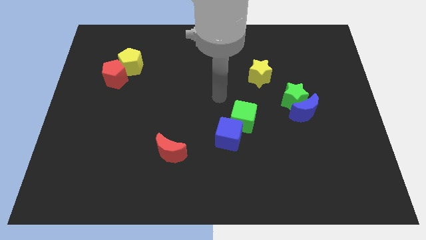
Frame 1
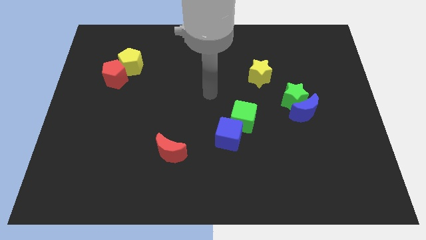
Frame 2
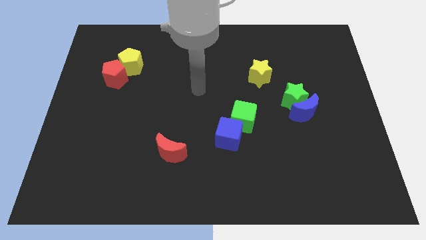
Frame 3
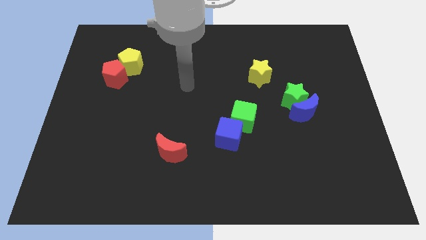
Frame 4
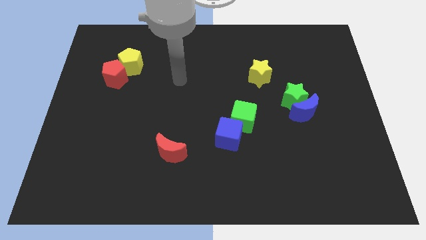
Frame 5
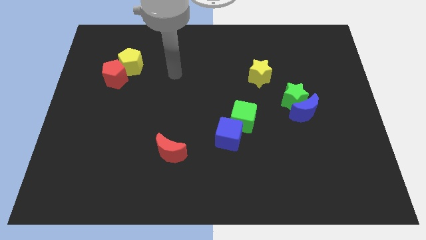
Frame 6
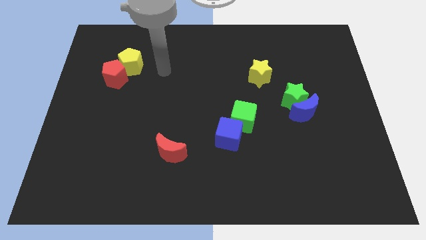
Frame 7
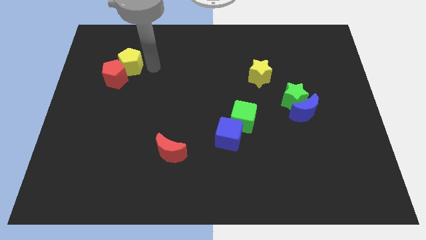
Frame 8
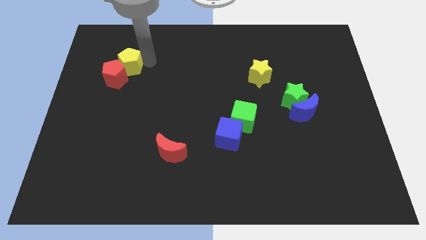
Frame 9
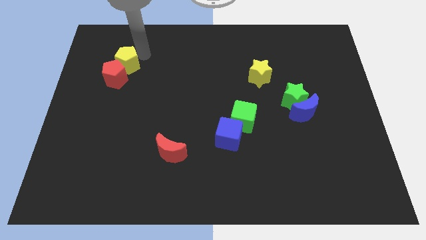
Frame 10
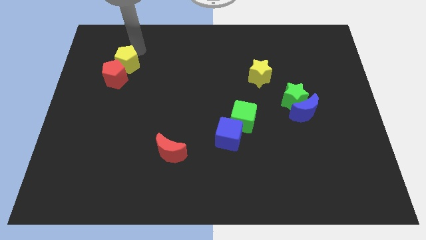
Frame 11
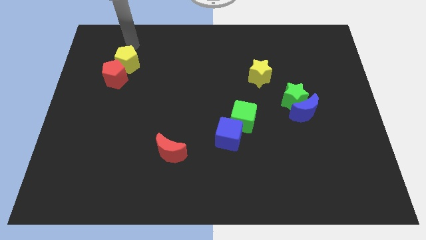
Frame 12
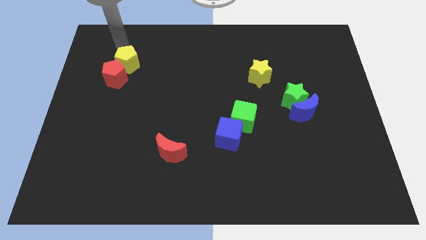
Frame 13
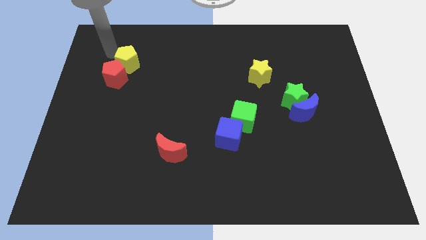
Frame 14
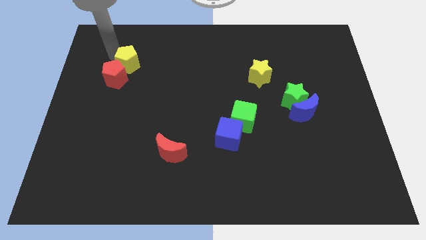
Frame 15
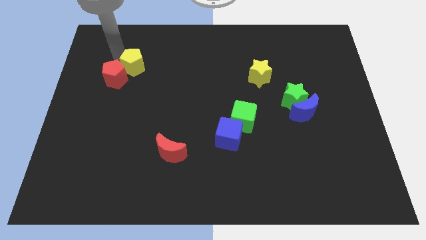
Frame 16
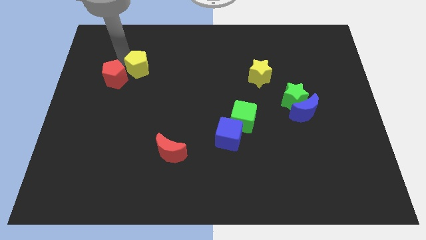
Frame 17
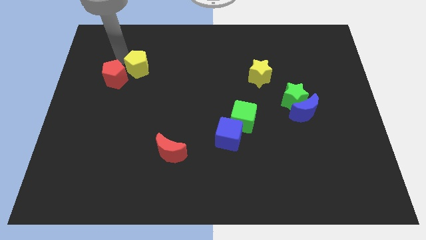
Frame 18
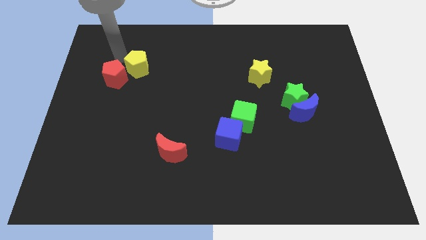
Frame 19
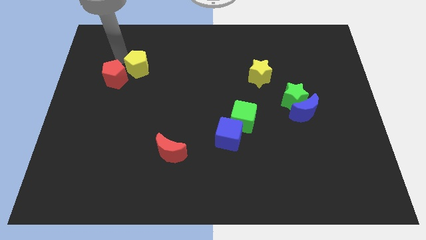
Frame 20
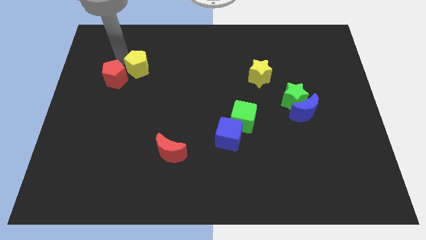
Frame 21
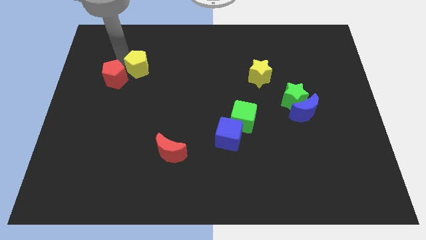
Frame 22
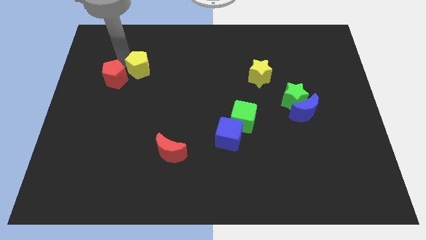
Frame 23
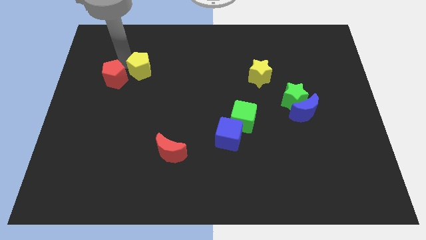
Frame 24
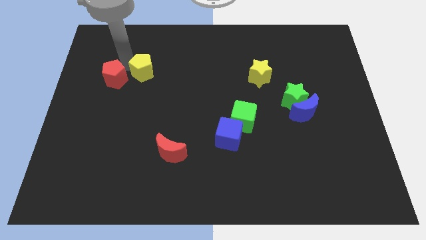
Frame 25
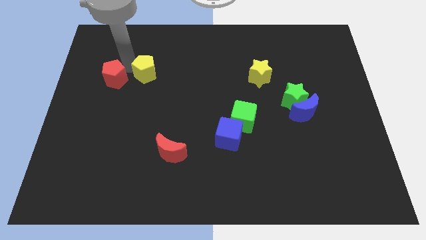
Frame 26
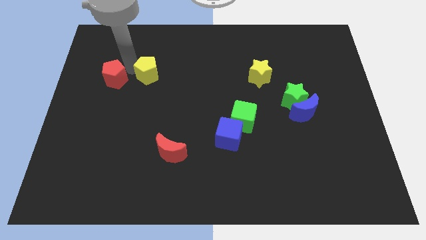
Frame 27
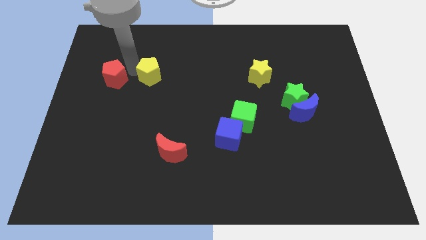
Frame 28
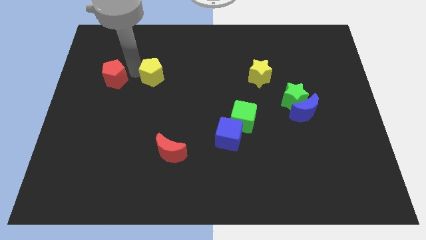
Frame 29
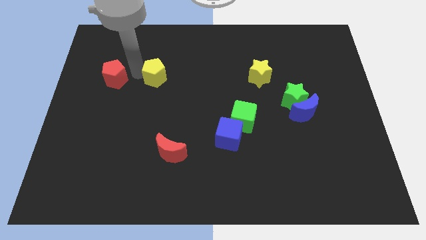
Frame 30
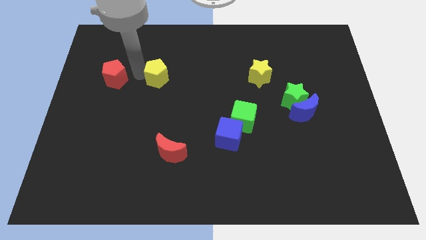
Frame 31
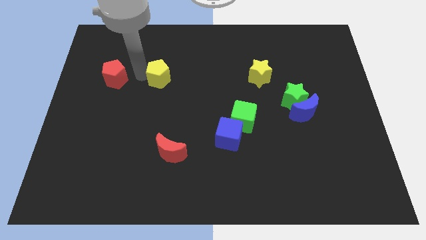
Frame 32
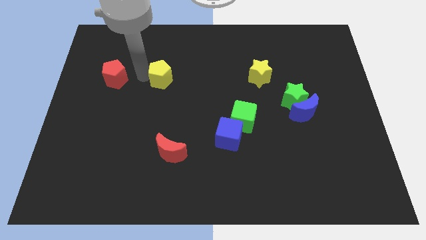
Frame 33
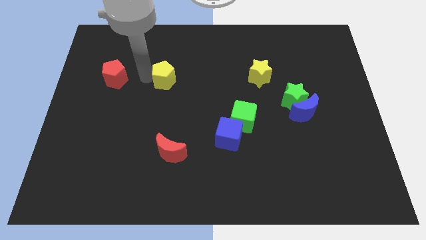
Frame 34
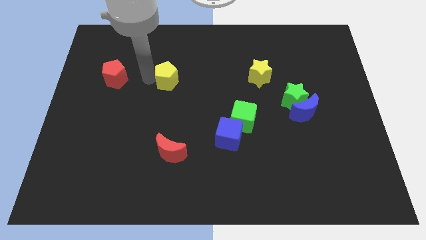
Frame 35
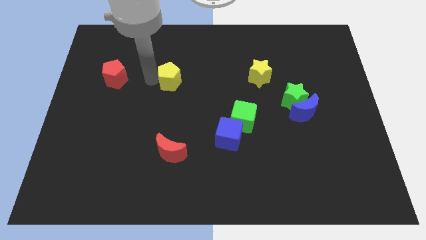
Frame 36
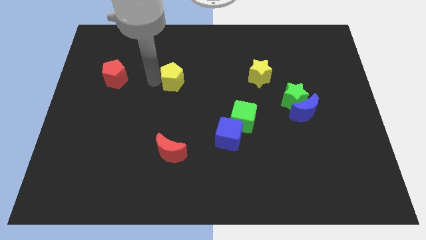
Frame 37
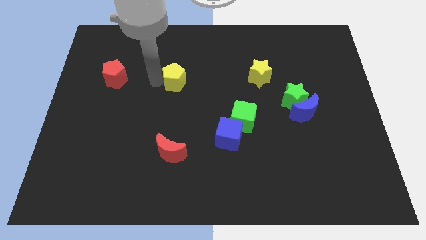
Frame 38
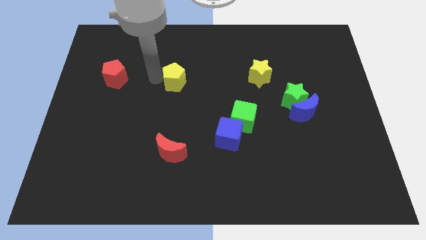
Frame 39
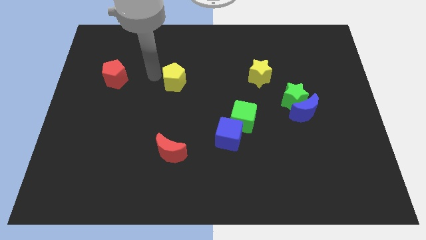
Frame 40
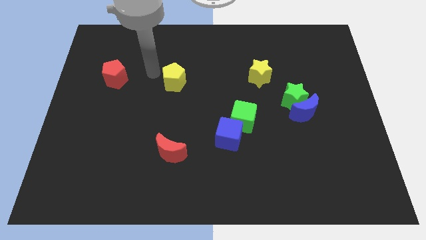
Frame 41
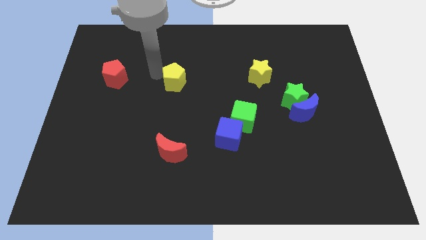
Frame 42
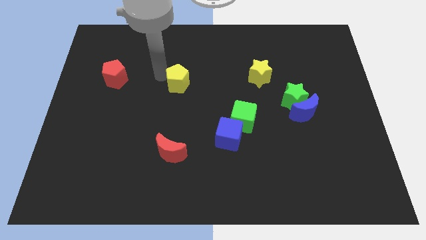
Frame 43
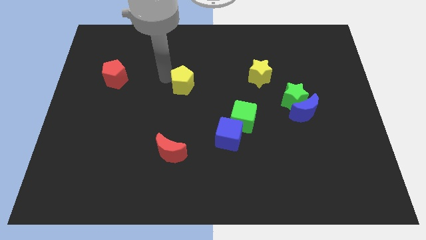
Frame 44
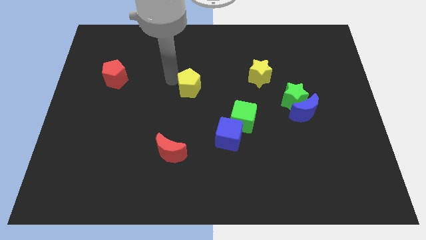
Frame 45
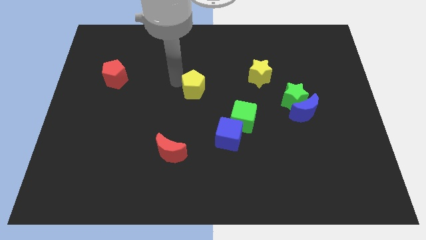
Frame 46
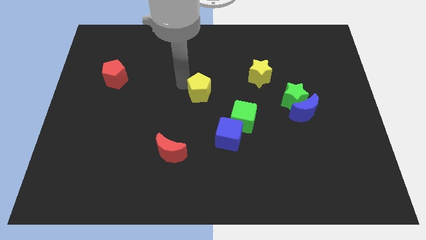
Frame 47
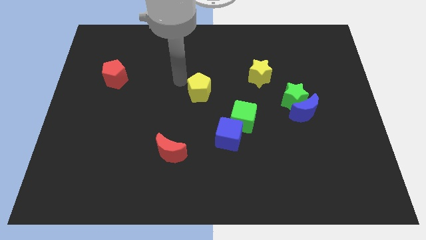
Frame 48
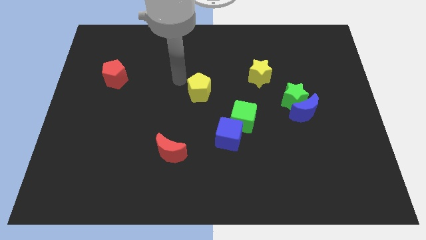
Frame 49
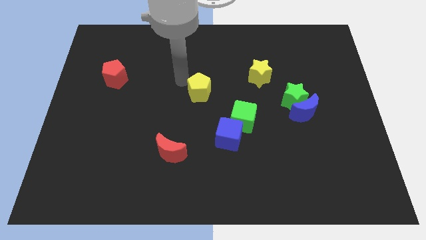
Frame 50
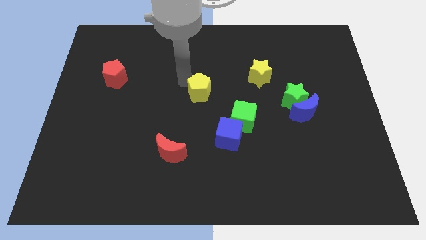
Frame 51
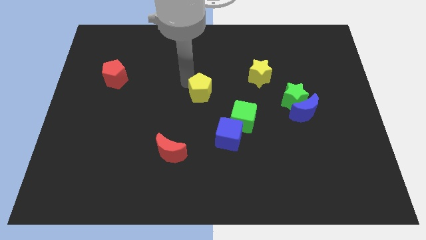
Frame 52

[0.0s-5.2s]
move the yellow pentagon to the top left of the green cube

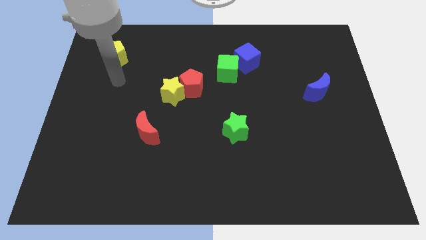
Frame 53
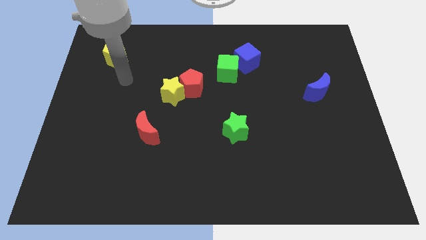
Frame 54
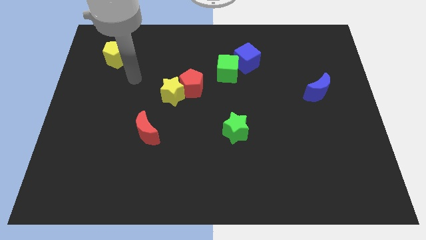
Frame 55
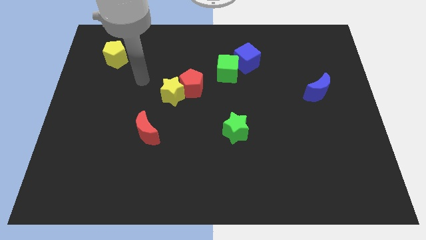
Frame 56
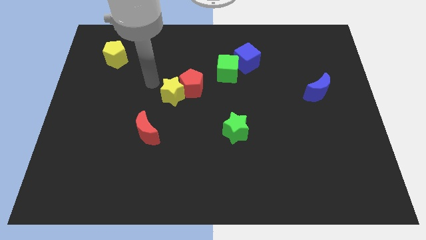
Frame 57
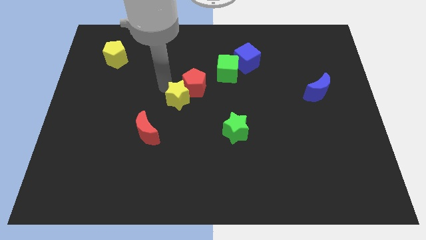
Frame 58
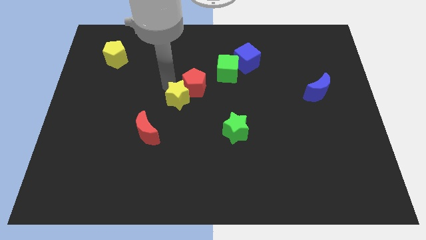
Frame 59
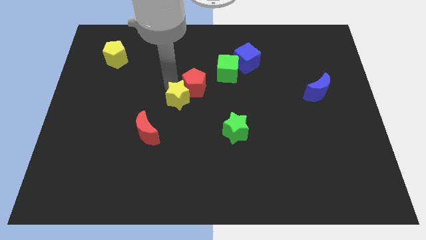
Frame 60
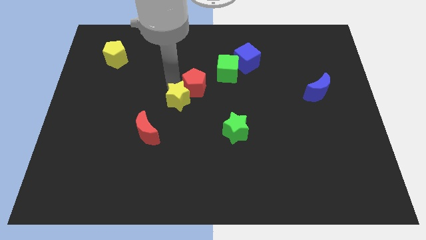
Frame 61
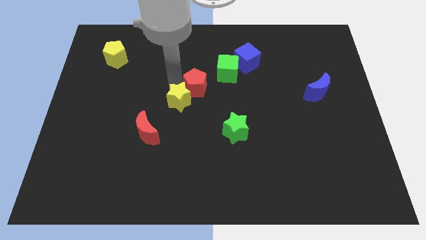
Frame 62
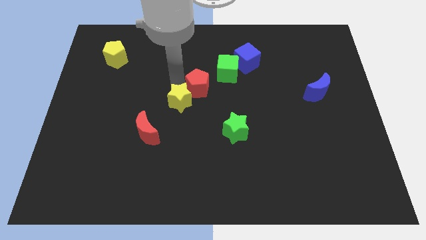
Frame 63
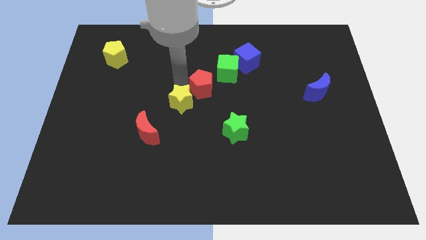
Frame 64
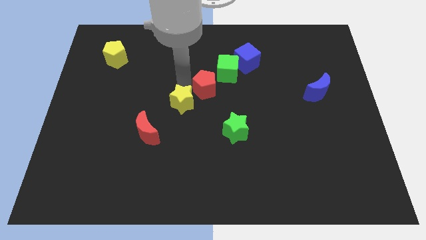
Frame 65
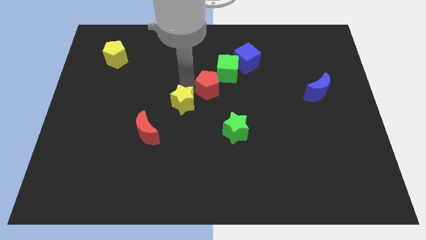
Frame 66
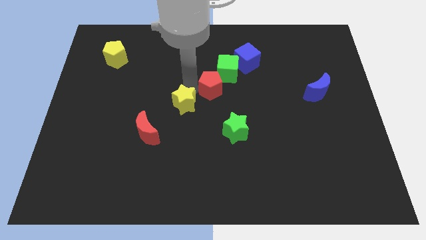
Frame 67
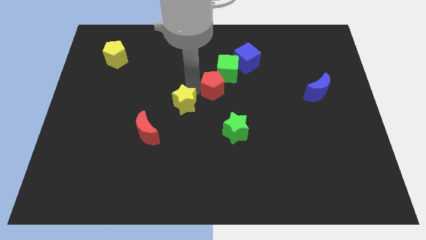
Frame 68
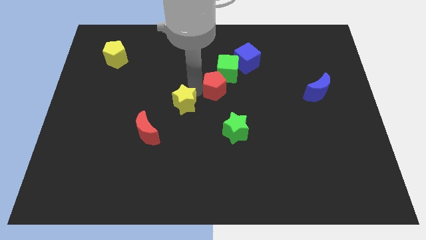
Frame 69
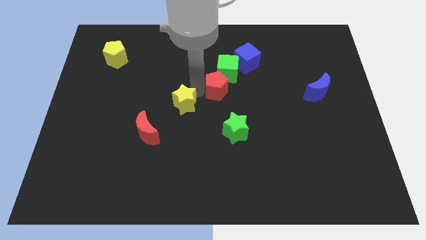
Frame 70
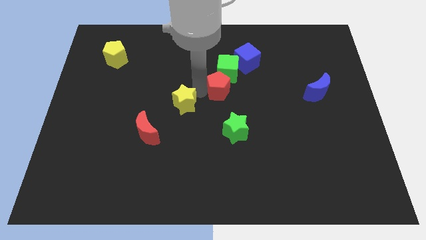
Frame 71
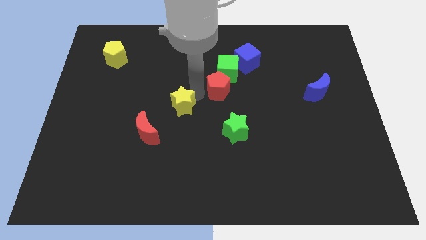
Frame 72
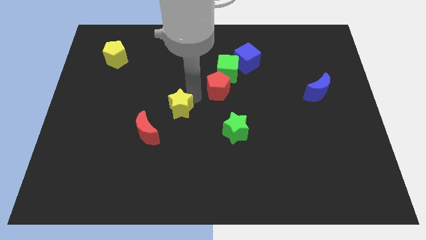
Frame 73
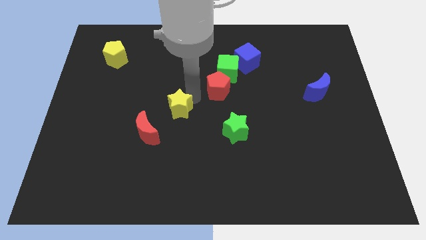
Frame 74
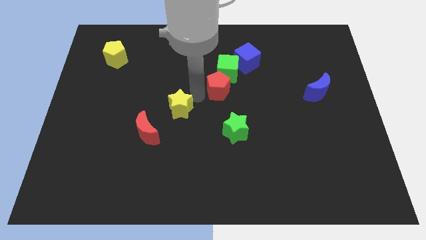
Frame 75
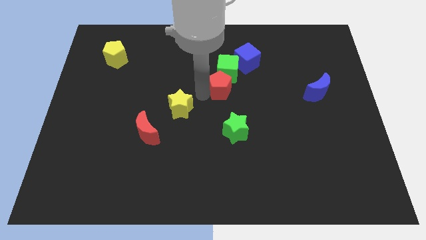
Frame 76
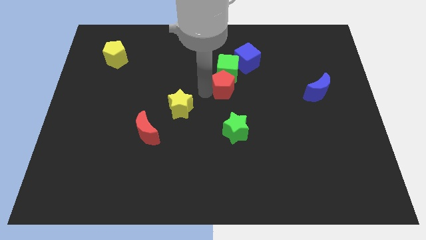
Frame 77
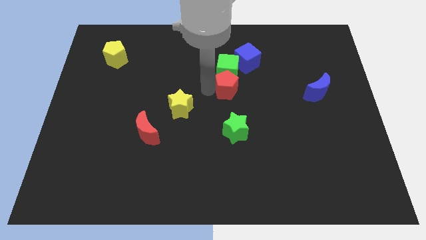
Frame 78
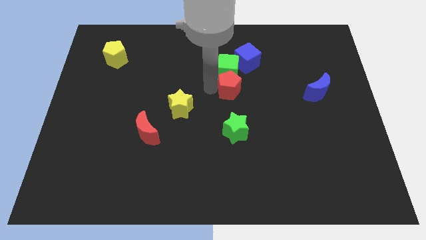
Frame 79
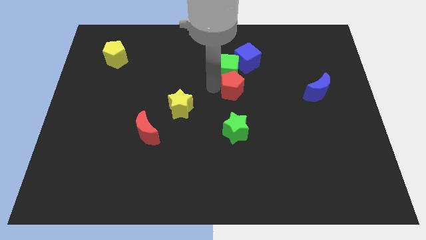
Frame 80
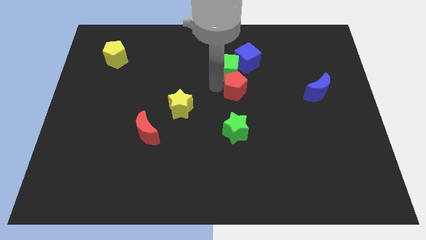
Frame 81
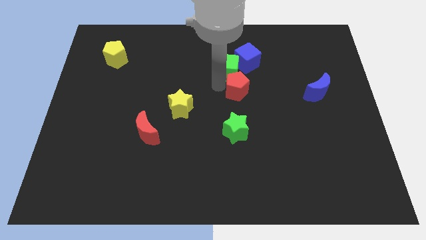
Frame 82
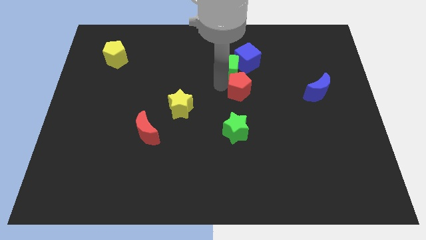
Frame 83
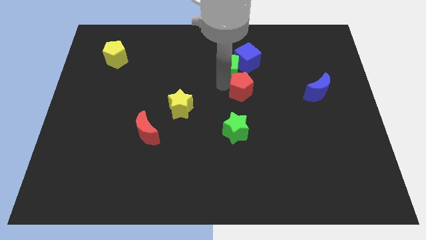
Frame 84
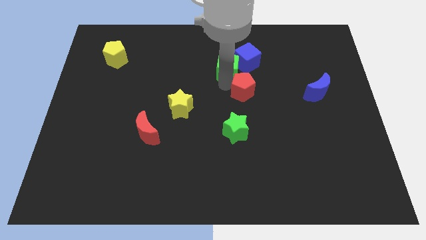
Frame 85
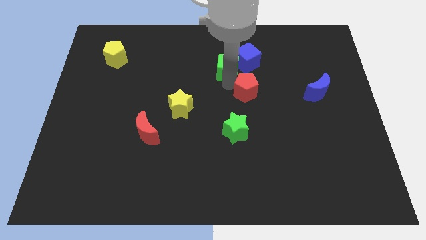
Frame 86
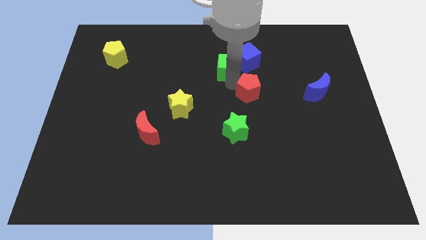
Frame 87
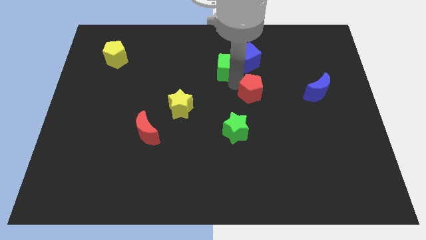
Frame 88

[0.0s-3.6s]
move the red pentagon just left of the blue moon
